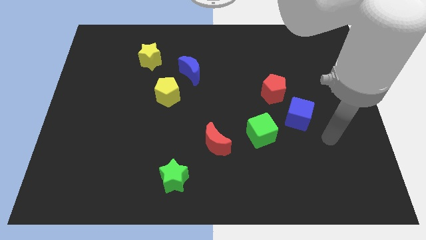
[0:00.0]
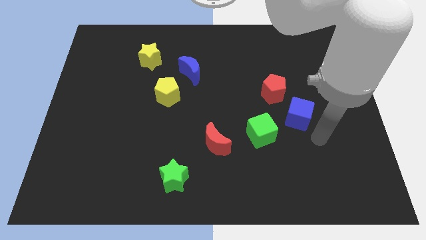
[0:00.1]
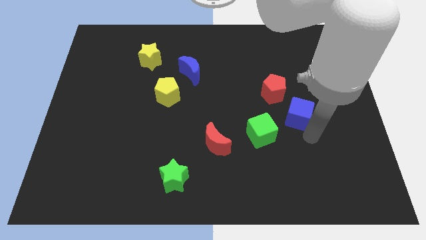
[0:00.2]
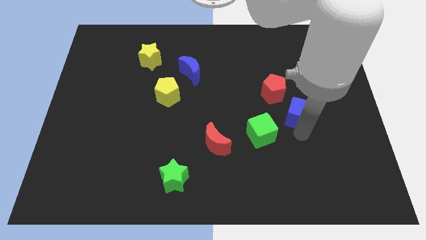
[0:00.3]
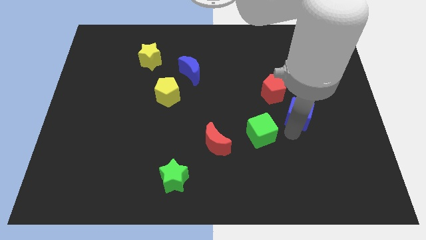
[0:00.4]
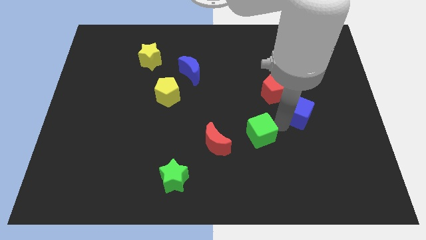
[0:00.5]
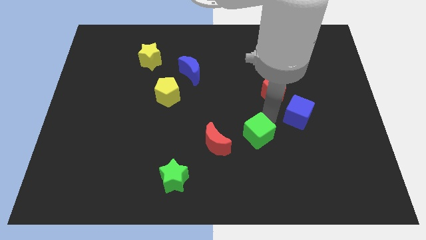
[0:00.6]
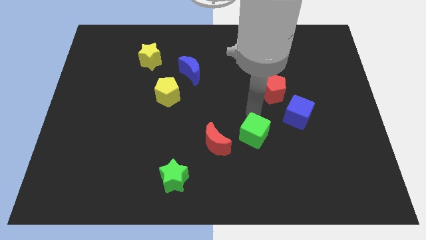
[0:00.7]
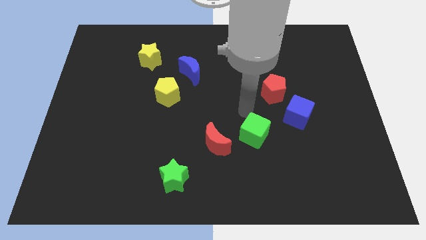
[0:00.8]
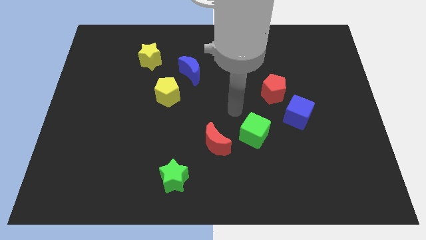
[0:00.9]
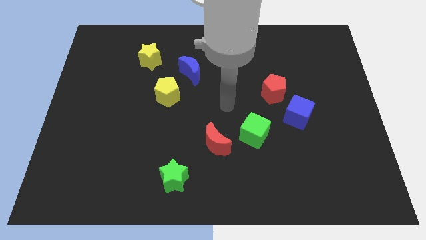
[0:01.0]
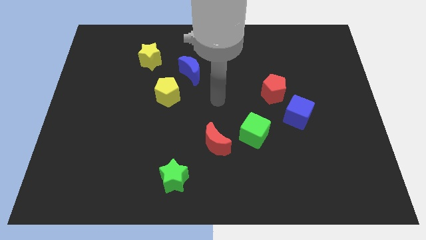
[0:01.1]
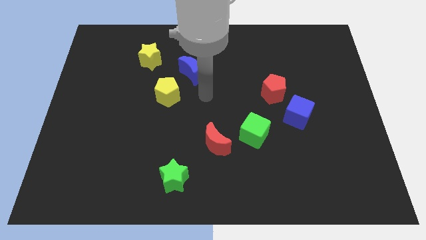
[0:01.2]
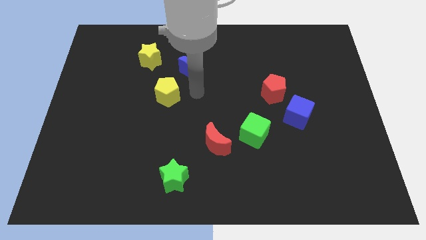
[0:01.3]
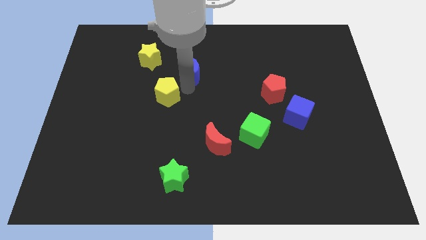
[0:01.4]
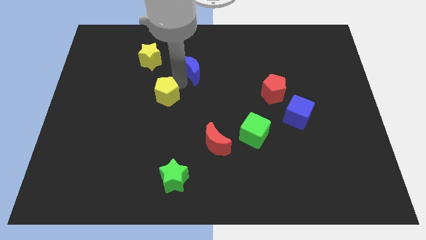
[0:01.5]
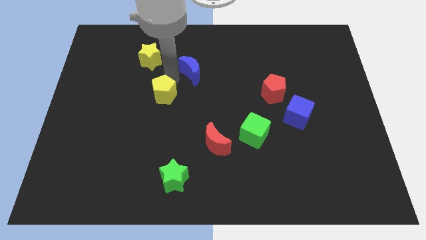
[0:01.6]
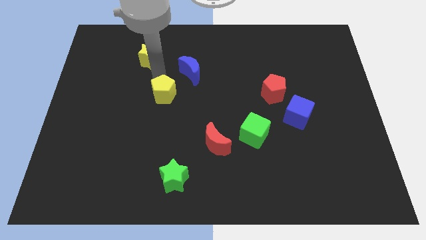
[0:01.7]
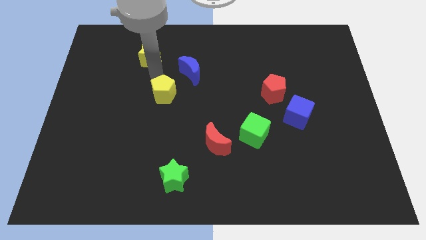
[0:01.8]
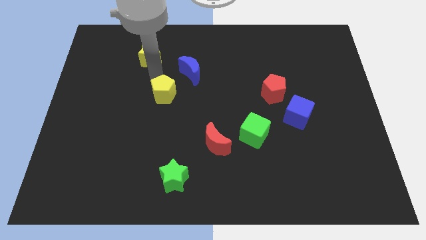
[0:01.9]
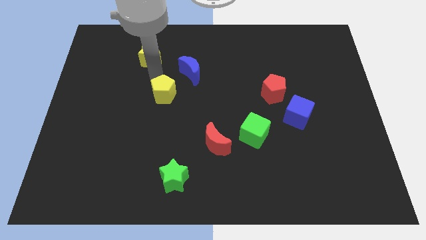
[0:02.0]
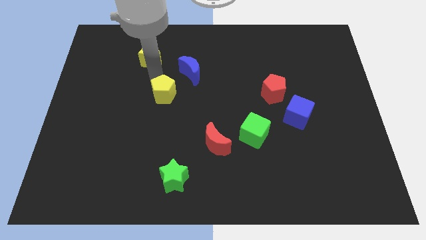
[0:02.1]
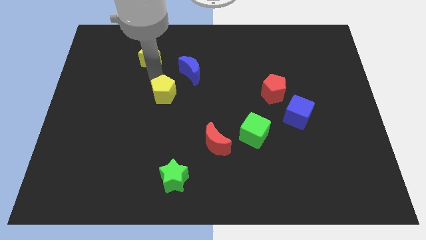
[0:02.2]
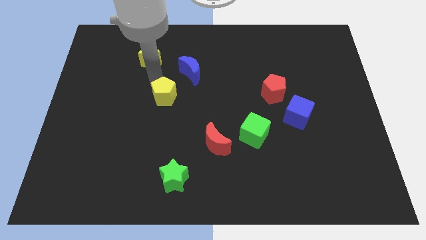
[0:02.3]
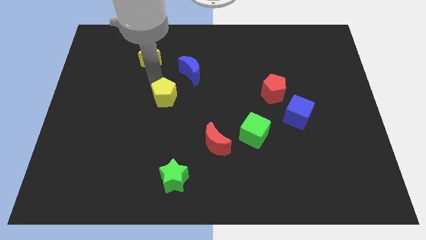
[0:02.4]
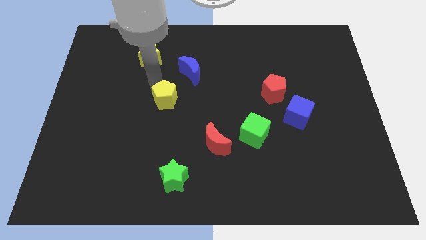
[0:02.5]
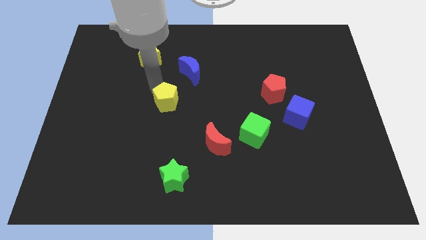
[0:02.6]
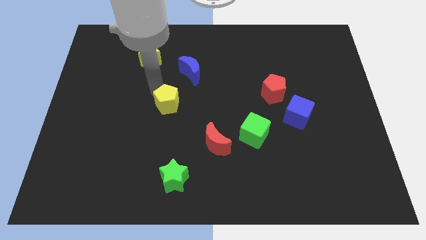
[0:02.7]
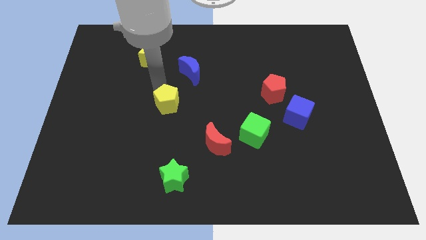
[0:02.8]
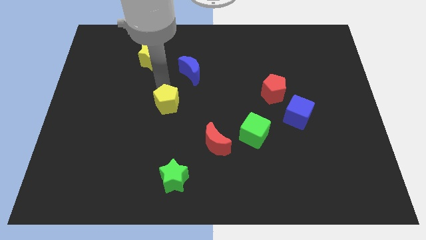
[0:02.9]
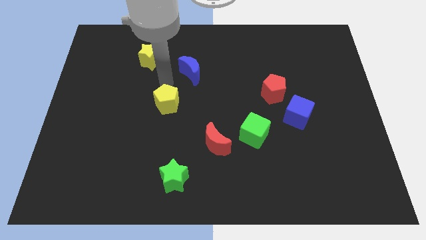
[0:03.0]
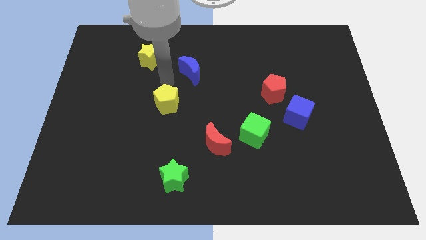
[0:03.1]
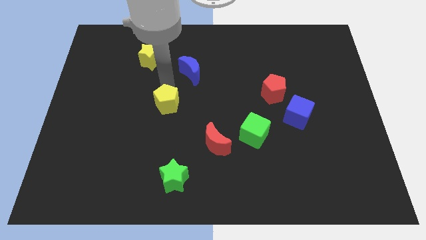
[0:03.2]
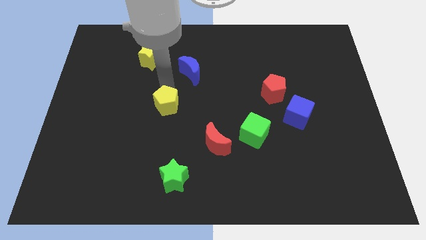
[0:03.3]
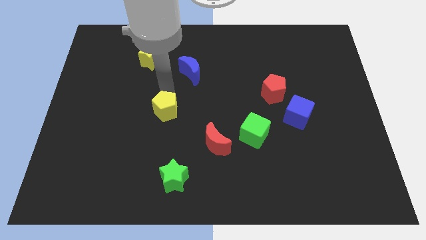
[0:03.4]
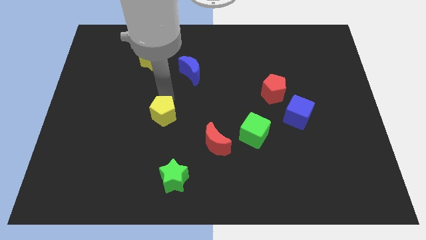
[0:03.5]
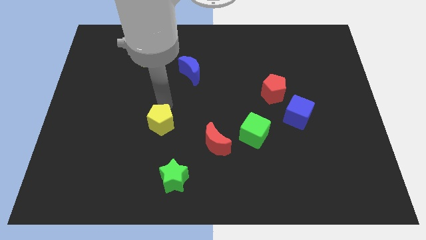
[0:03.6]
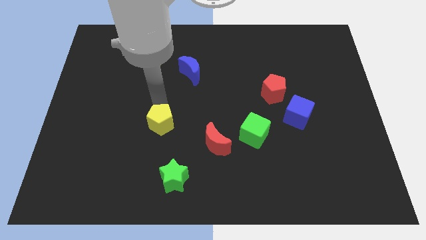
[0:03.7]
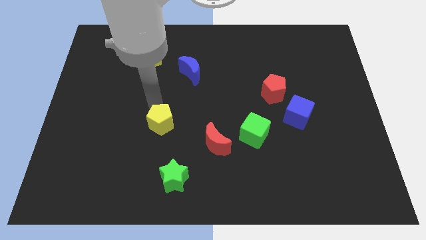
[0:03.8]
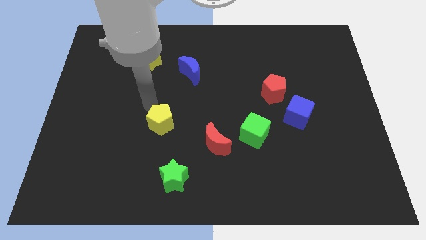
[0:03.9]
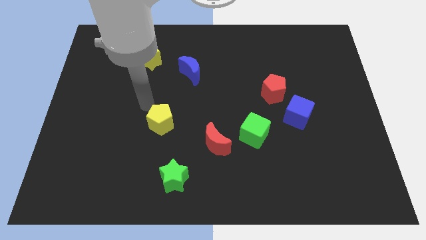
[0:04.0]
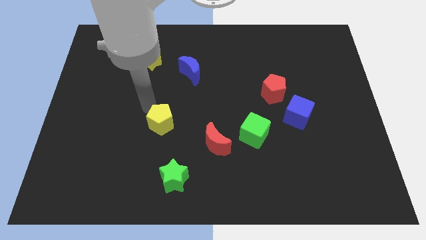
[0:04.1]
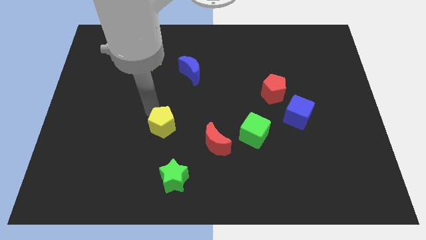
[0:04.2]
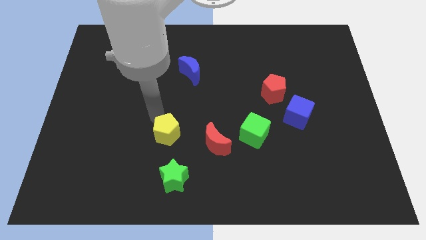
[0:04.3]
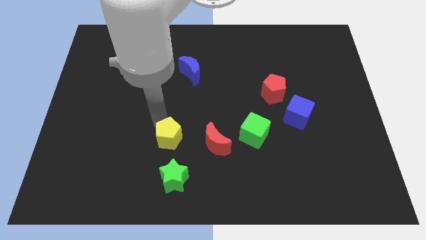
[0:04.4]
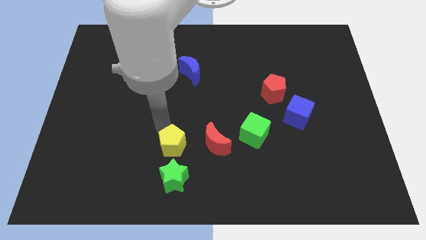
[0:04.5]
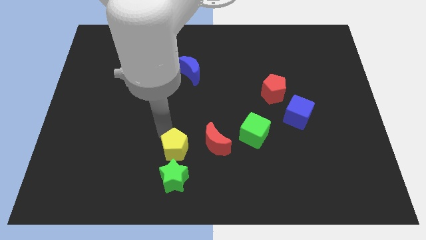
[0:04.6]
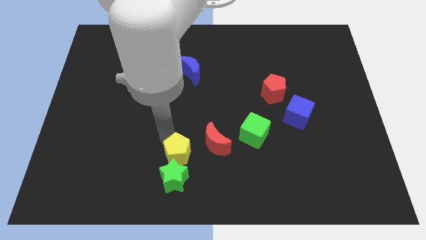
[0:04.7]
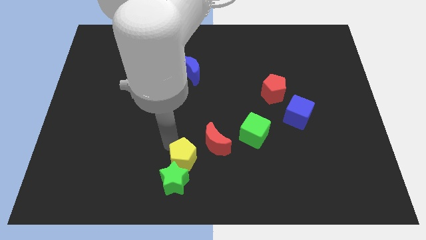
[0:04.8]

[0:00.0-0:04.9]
push the yellow pentagon to the bottom side

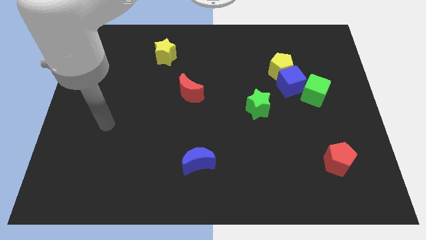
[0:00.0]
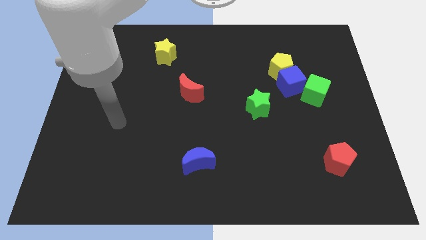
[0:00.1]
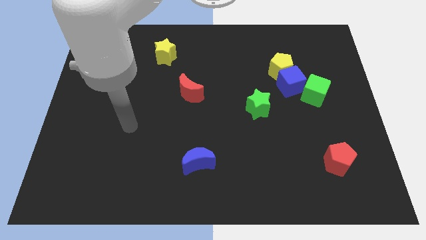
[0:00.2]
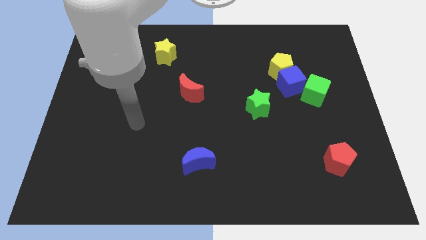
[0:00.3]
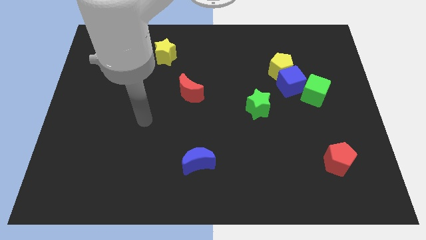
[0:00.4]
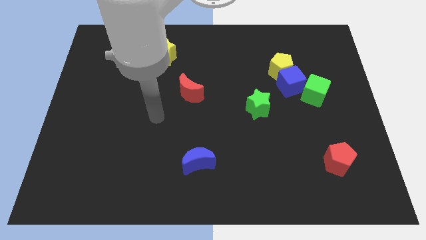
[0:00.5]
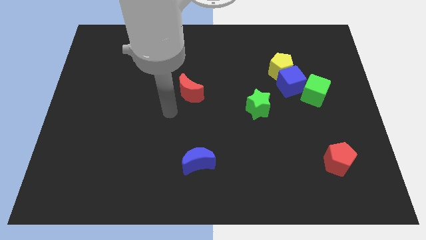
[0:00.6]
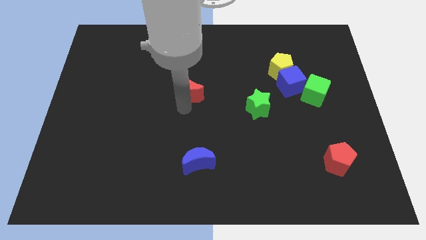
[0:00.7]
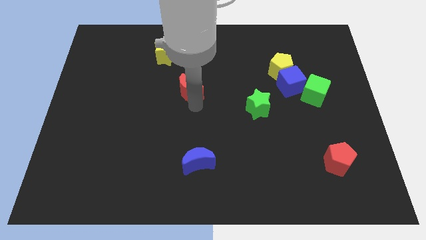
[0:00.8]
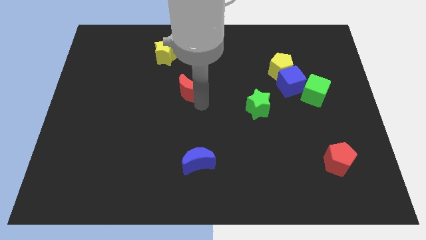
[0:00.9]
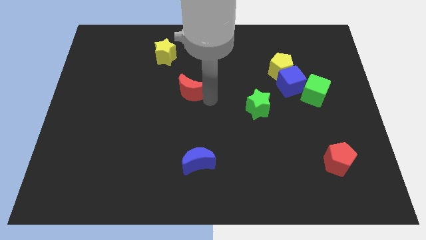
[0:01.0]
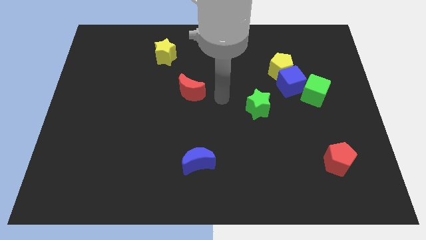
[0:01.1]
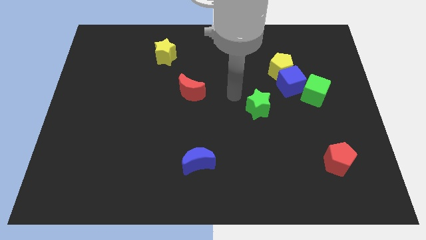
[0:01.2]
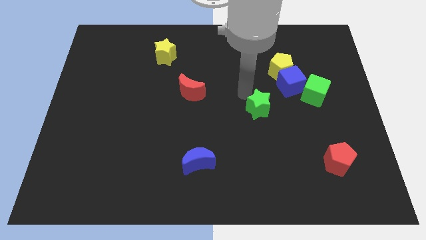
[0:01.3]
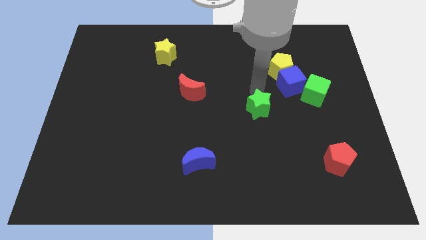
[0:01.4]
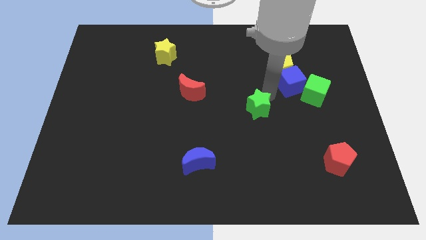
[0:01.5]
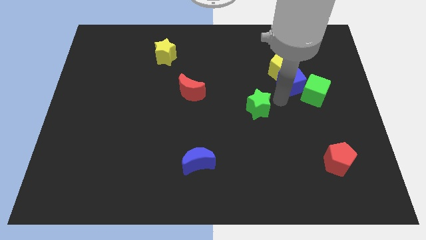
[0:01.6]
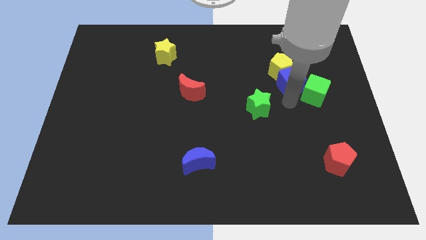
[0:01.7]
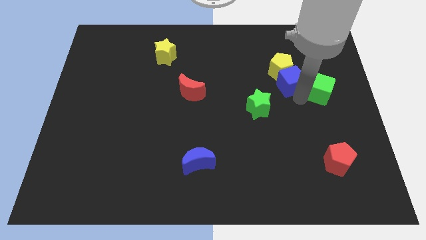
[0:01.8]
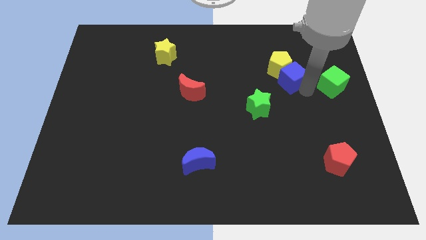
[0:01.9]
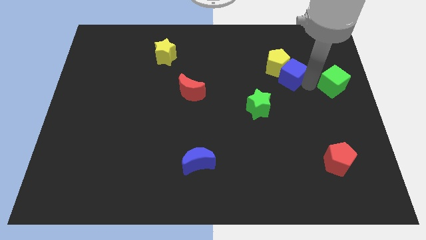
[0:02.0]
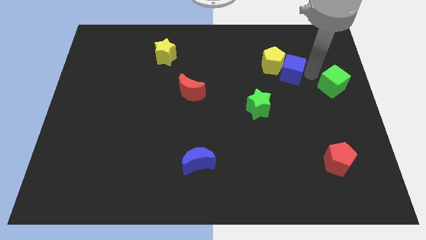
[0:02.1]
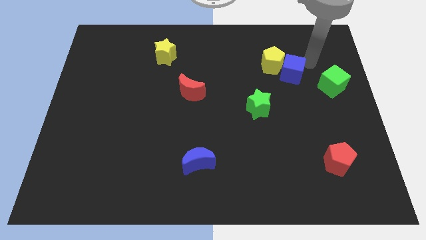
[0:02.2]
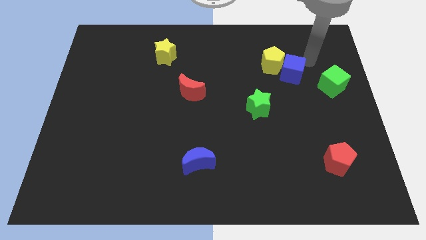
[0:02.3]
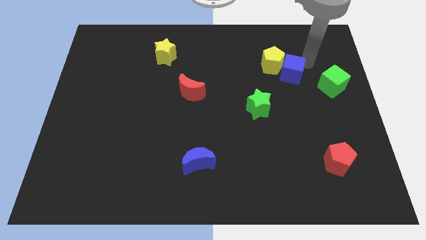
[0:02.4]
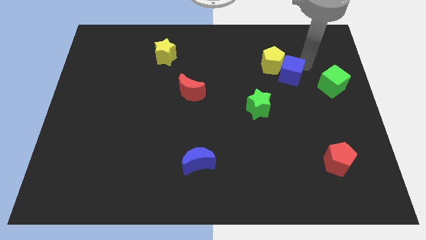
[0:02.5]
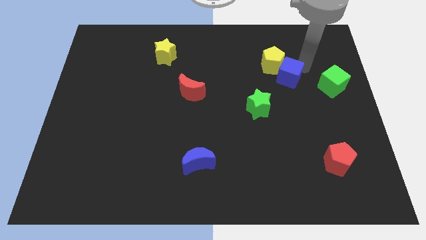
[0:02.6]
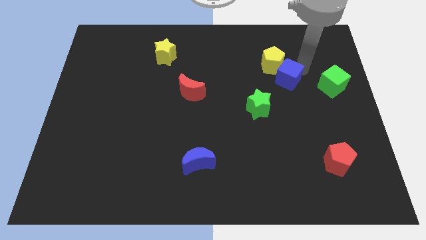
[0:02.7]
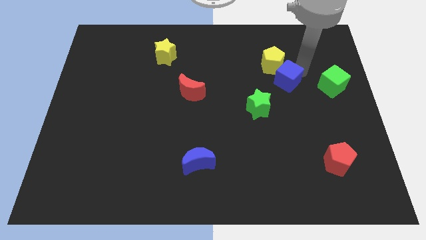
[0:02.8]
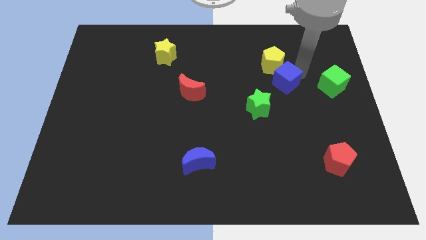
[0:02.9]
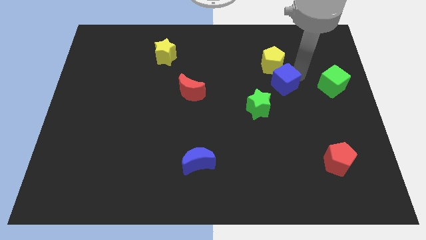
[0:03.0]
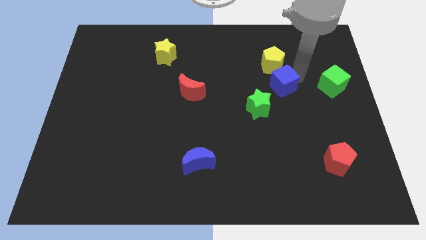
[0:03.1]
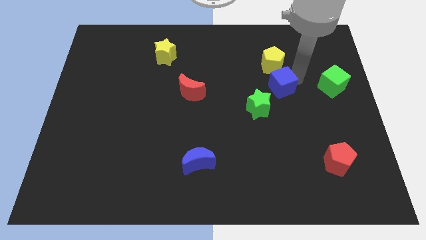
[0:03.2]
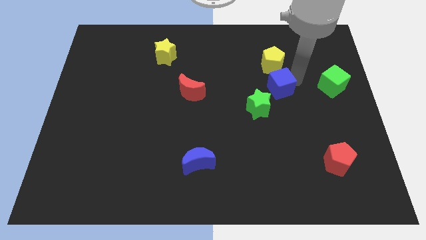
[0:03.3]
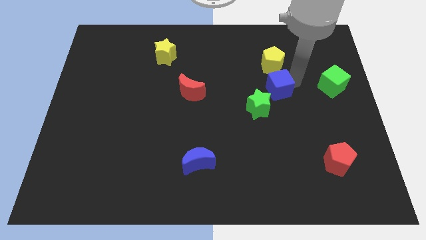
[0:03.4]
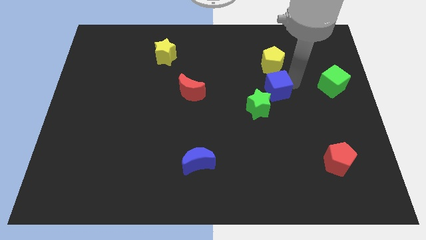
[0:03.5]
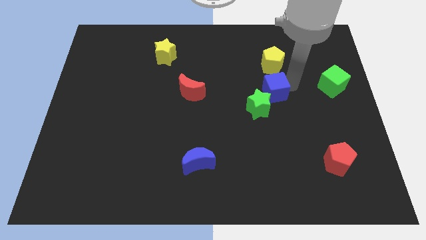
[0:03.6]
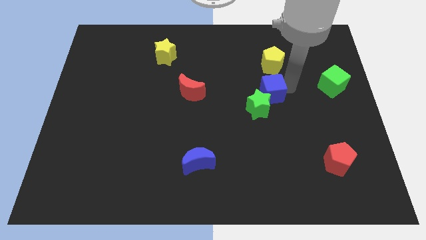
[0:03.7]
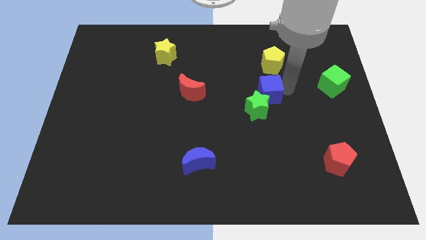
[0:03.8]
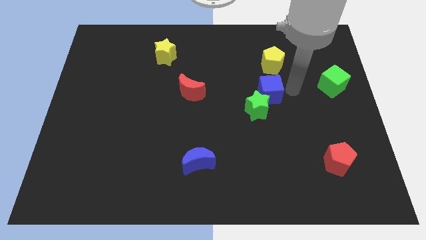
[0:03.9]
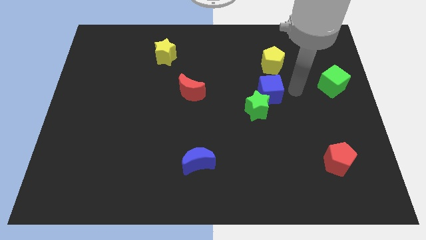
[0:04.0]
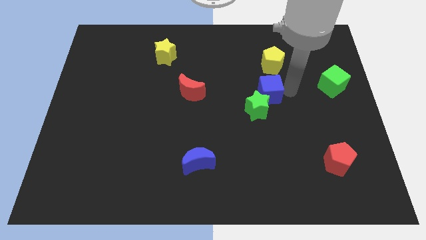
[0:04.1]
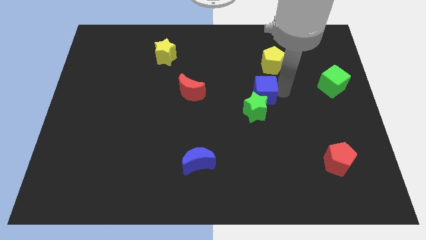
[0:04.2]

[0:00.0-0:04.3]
push the blue cube to the center
